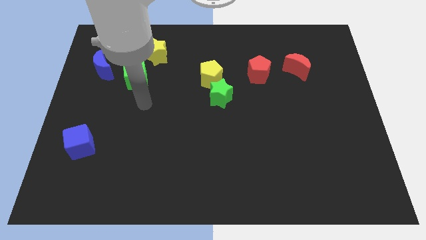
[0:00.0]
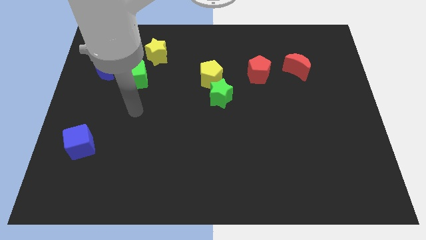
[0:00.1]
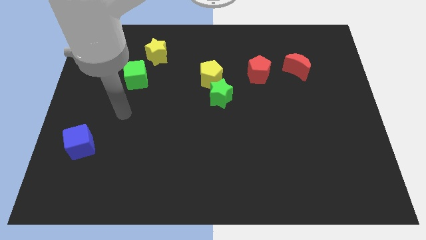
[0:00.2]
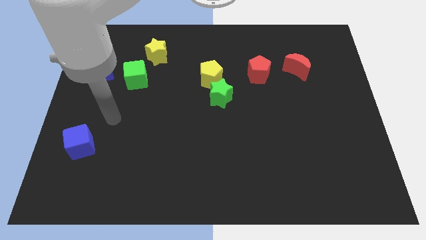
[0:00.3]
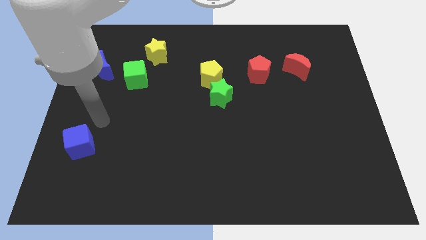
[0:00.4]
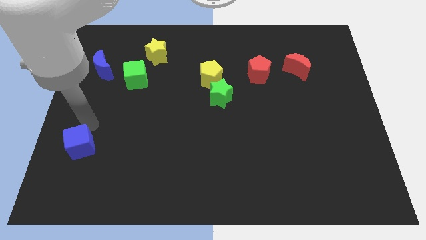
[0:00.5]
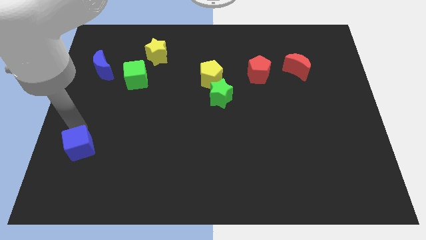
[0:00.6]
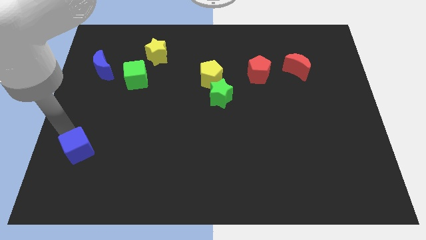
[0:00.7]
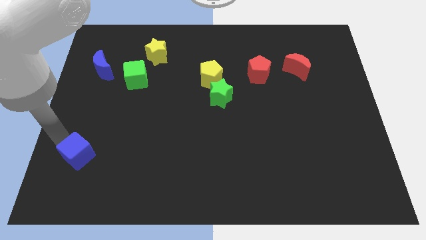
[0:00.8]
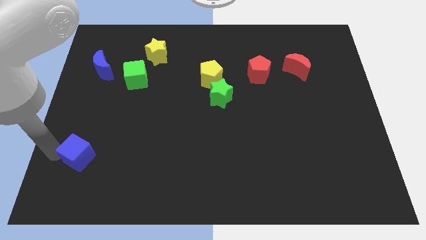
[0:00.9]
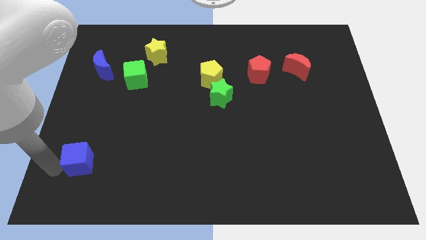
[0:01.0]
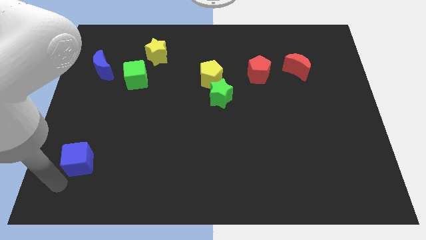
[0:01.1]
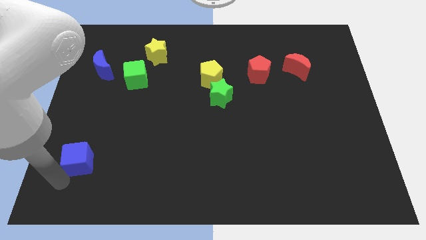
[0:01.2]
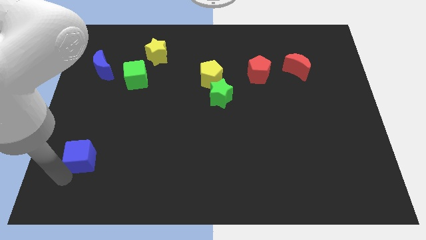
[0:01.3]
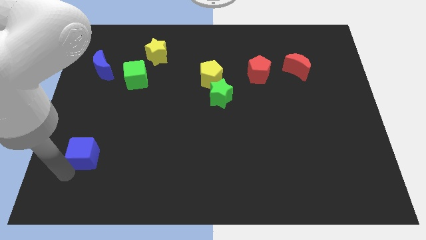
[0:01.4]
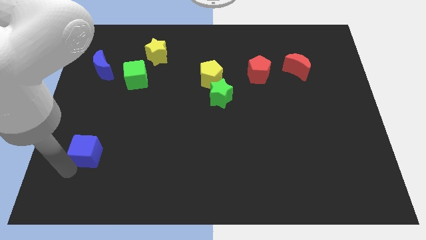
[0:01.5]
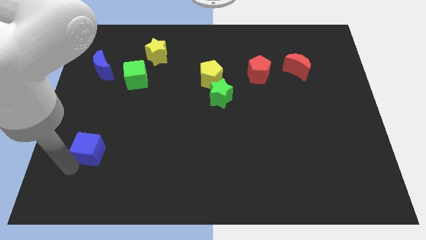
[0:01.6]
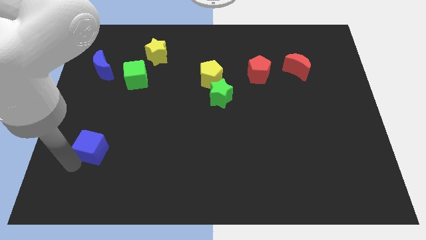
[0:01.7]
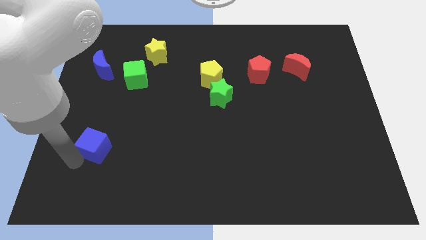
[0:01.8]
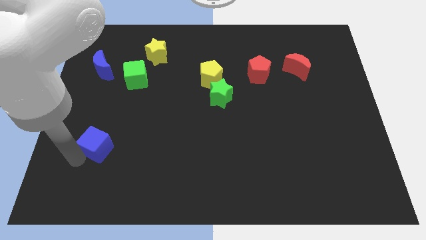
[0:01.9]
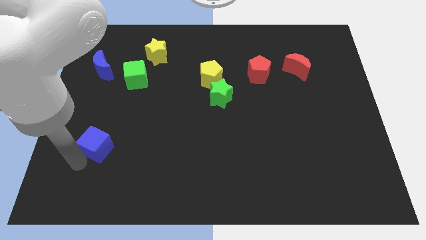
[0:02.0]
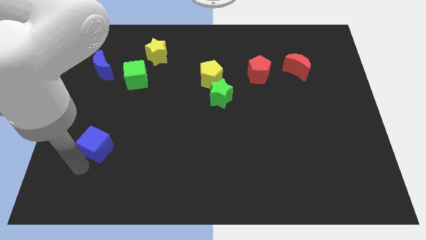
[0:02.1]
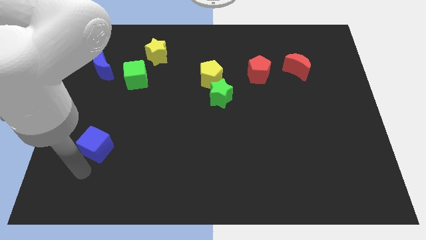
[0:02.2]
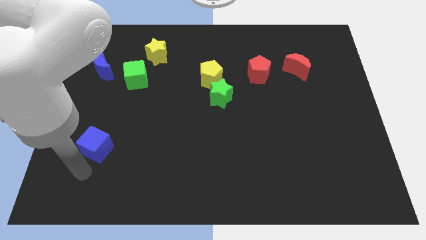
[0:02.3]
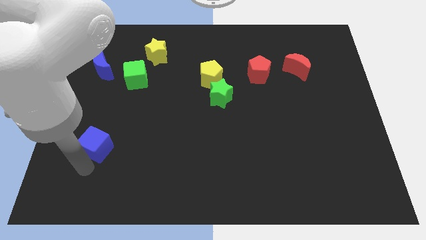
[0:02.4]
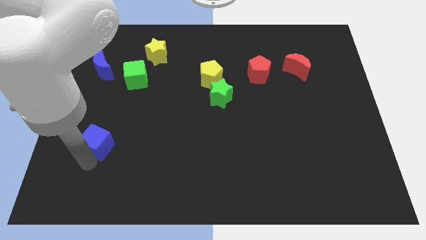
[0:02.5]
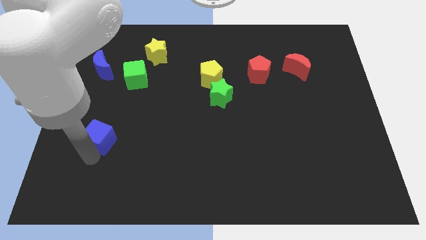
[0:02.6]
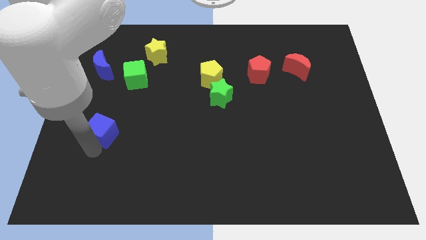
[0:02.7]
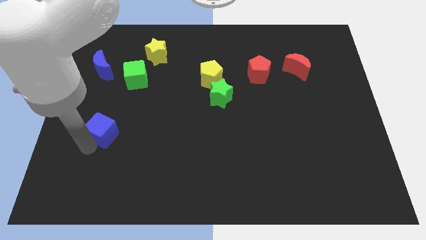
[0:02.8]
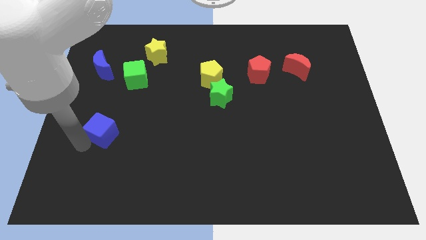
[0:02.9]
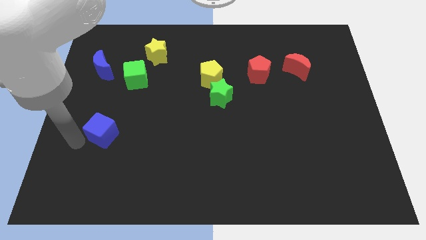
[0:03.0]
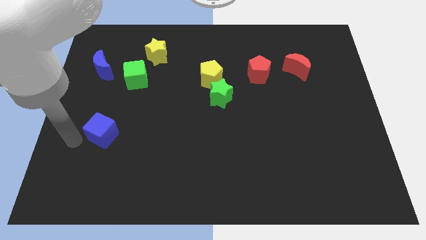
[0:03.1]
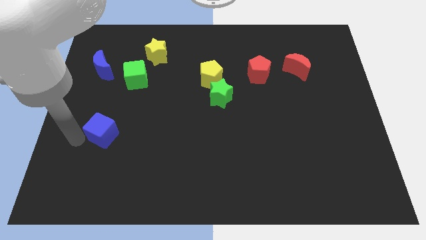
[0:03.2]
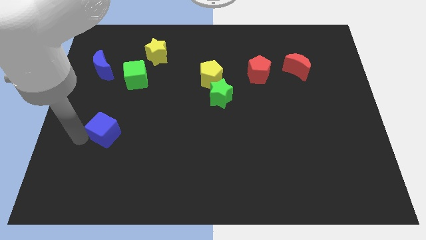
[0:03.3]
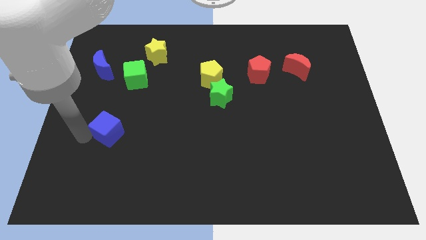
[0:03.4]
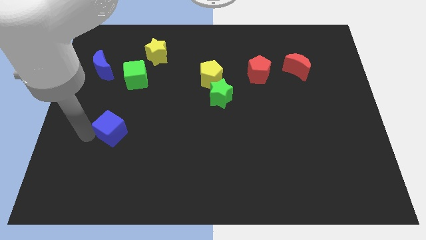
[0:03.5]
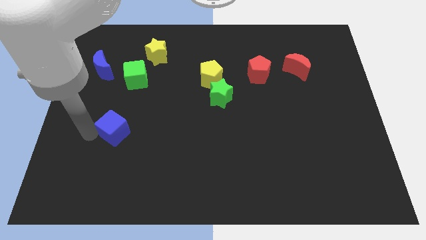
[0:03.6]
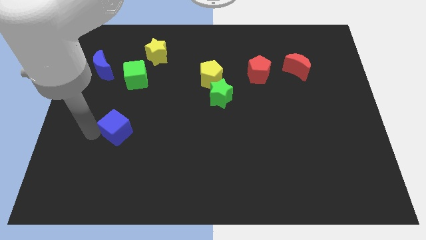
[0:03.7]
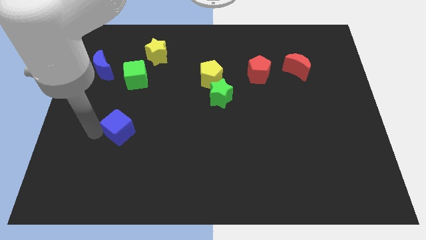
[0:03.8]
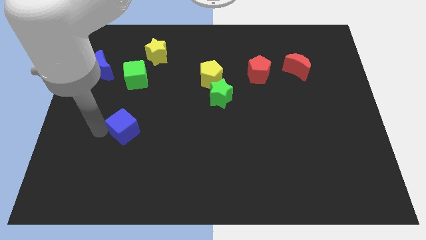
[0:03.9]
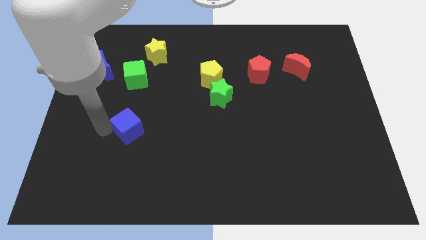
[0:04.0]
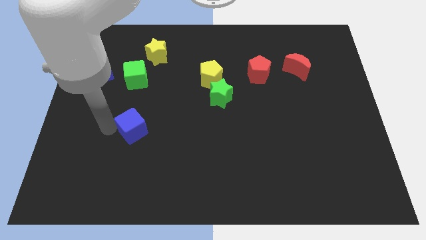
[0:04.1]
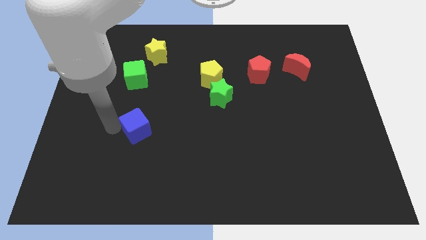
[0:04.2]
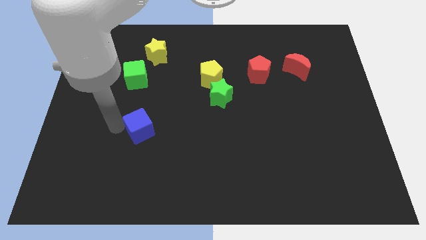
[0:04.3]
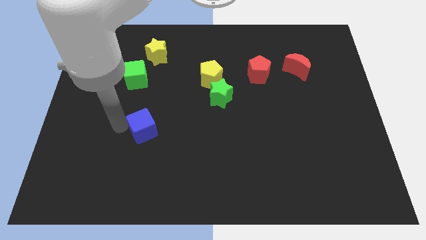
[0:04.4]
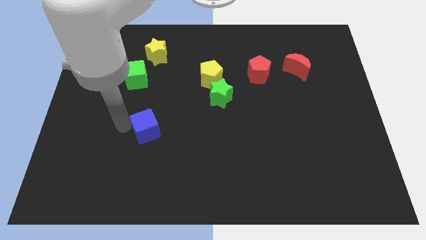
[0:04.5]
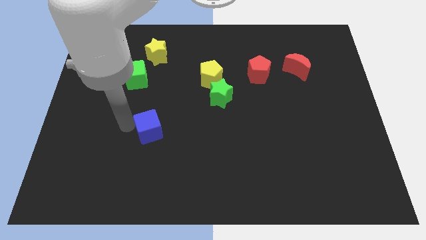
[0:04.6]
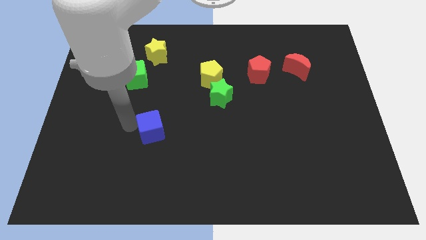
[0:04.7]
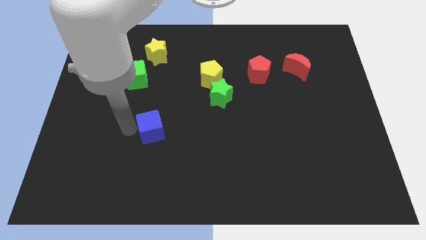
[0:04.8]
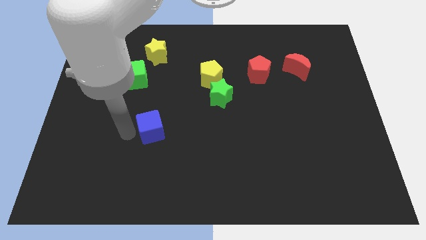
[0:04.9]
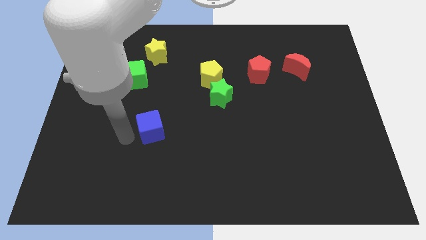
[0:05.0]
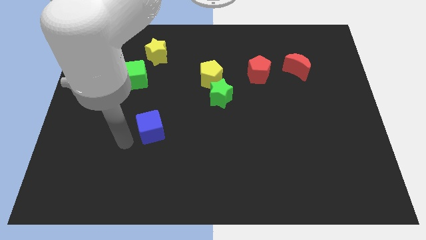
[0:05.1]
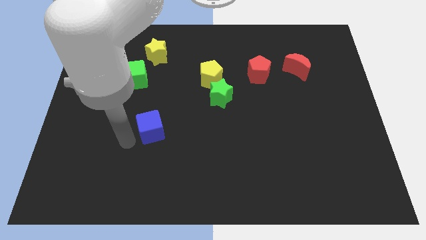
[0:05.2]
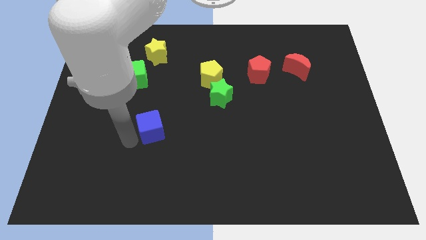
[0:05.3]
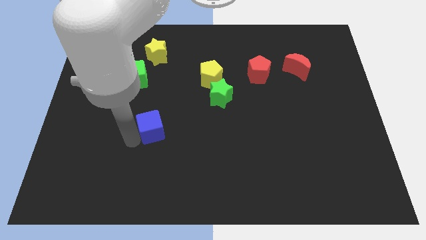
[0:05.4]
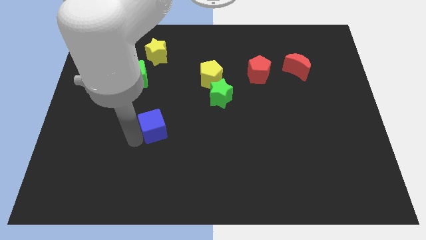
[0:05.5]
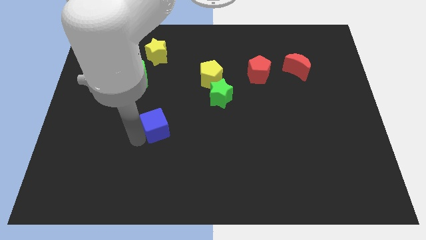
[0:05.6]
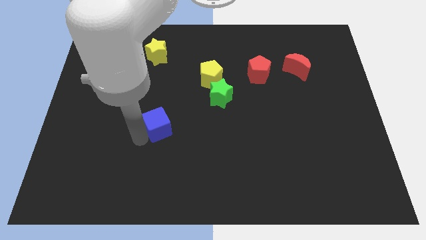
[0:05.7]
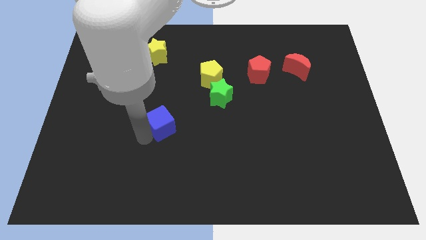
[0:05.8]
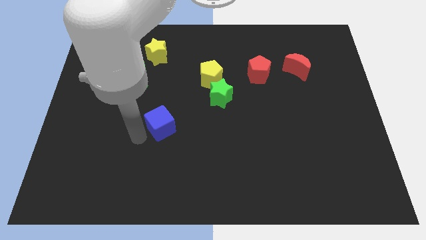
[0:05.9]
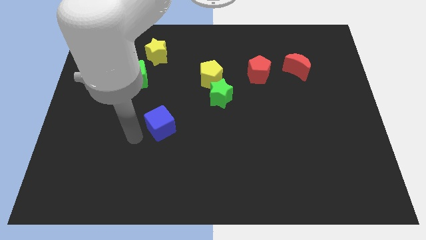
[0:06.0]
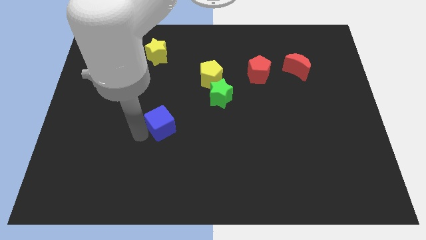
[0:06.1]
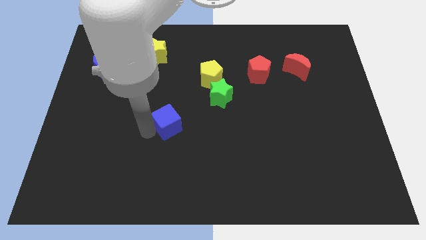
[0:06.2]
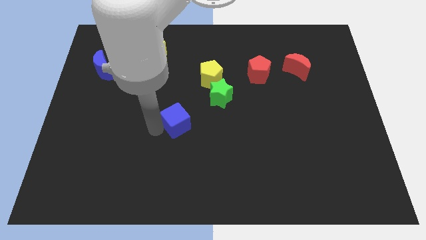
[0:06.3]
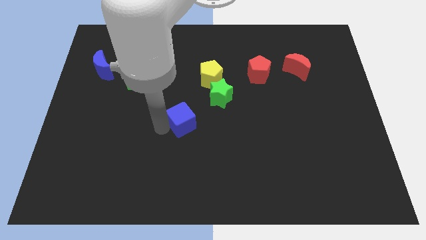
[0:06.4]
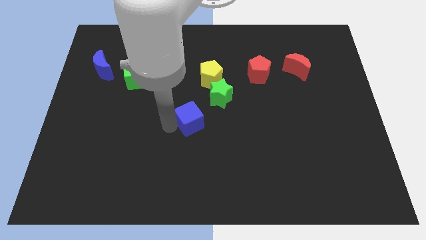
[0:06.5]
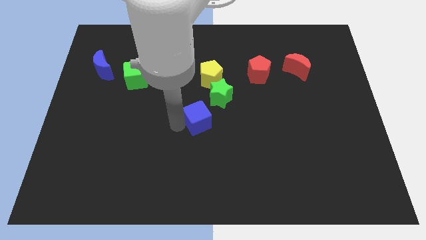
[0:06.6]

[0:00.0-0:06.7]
move the blue cube to the bottom of the yellow pentagon
